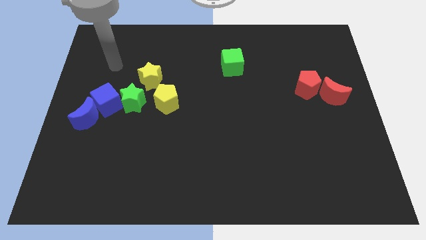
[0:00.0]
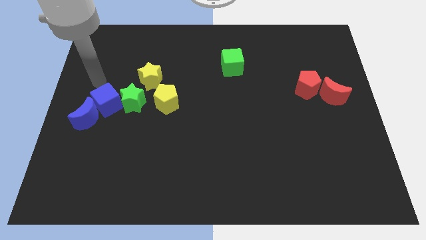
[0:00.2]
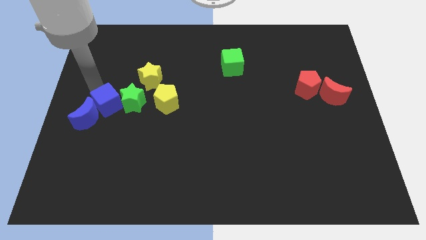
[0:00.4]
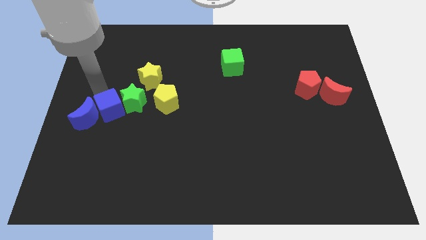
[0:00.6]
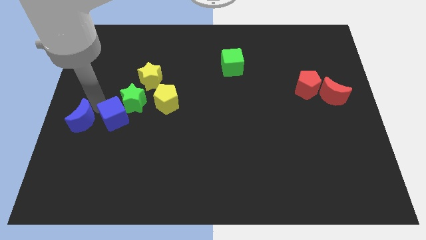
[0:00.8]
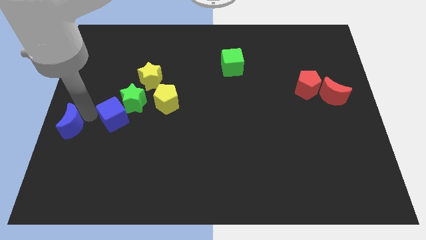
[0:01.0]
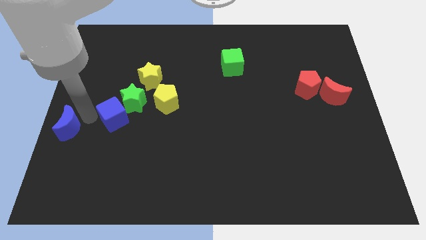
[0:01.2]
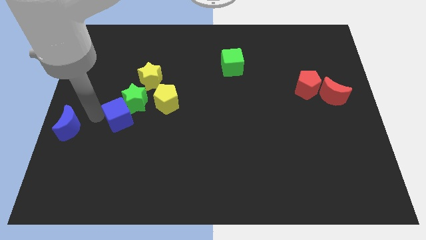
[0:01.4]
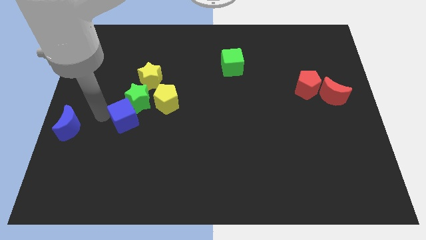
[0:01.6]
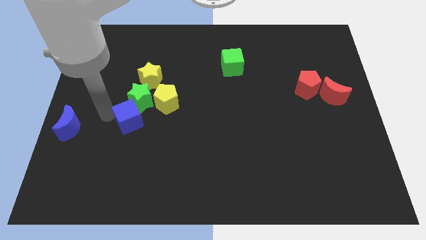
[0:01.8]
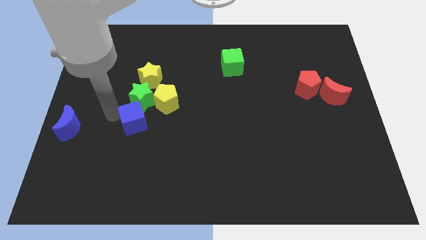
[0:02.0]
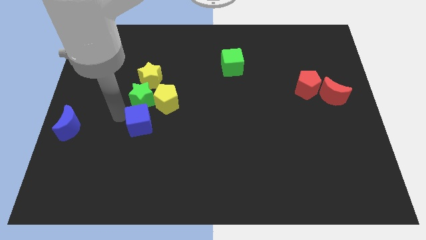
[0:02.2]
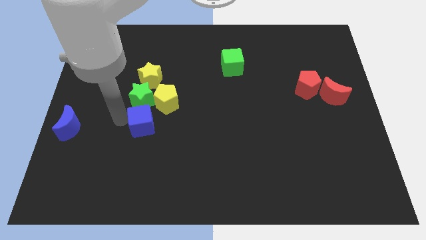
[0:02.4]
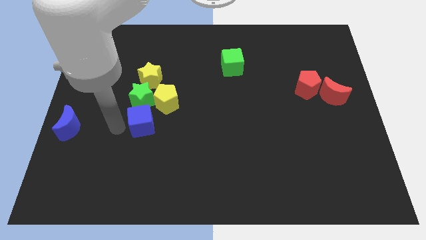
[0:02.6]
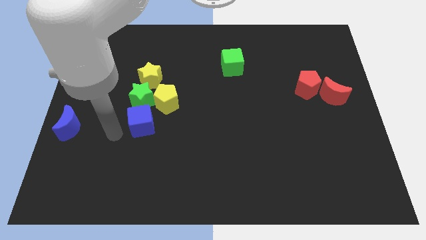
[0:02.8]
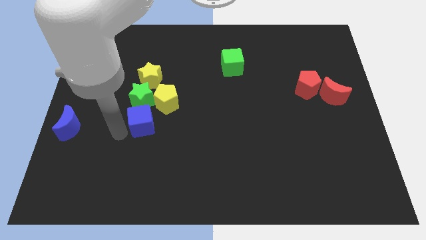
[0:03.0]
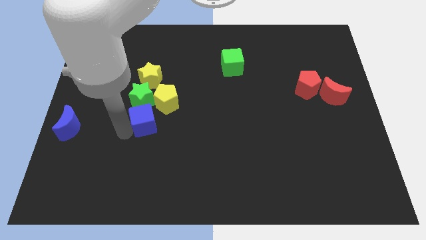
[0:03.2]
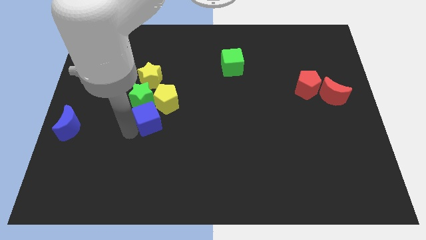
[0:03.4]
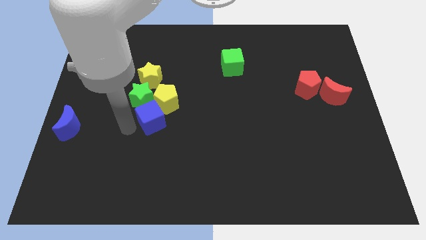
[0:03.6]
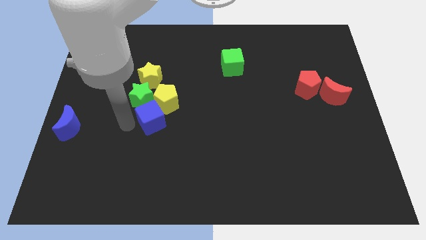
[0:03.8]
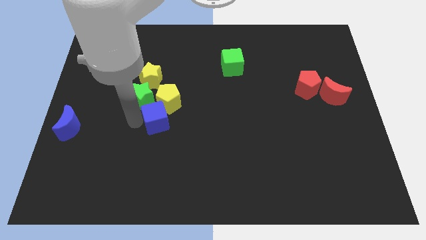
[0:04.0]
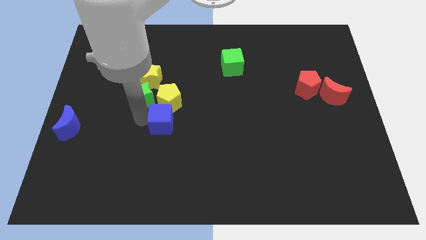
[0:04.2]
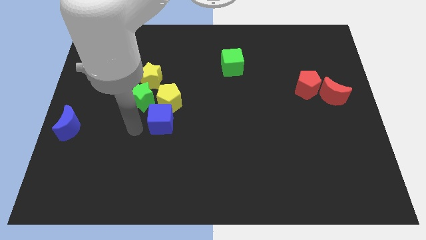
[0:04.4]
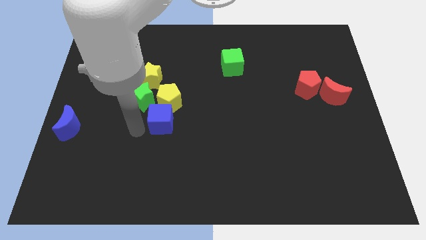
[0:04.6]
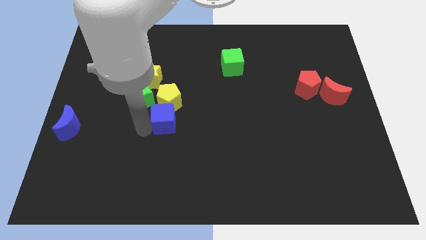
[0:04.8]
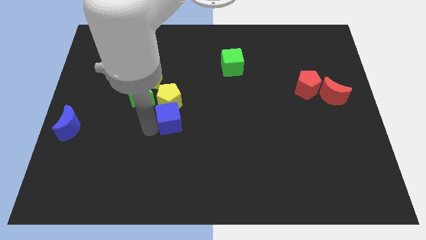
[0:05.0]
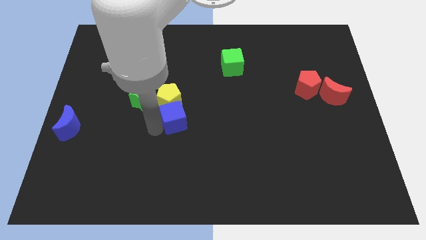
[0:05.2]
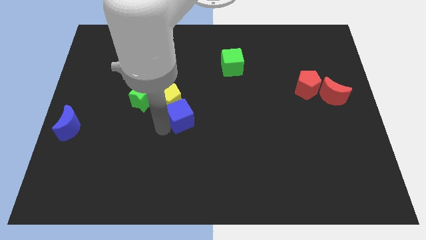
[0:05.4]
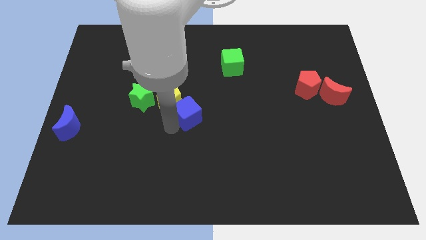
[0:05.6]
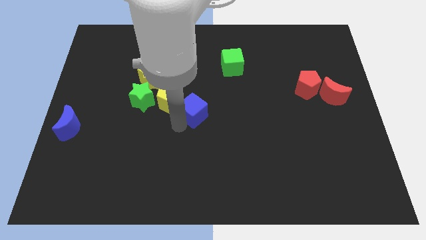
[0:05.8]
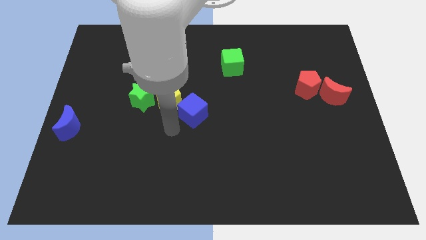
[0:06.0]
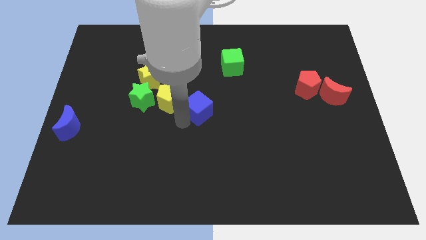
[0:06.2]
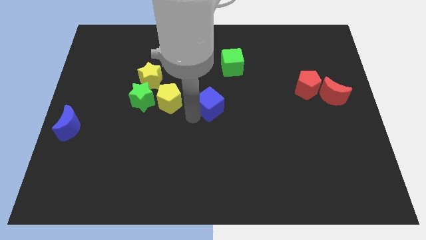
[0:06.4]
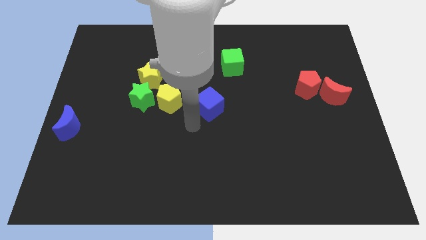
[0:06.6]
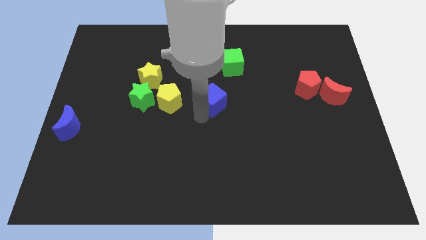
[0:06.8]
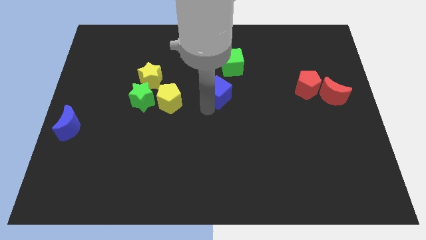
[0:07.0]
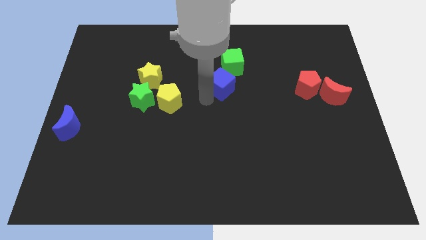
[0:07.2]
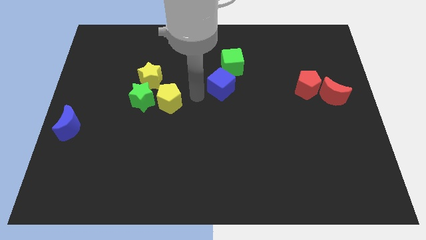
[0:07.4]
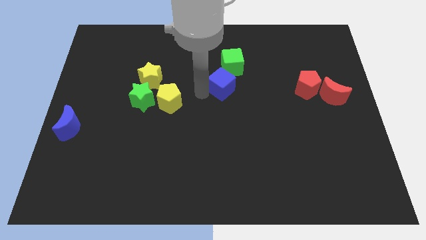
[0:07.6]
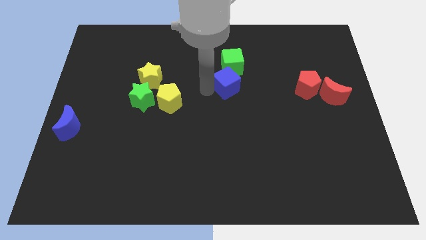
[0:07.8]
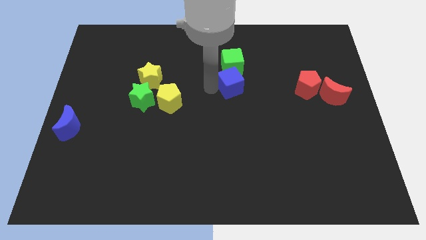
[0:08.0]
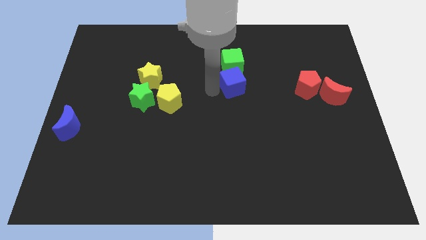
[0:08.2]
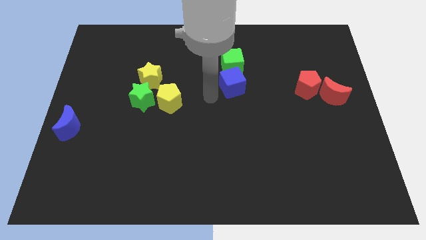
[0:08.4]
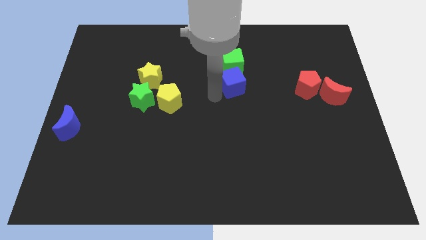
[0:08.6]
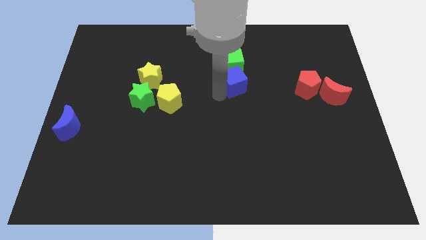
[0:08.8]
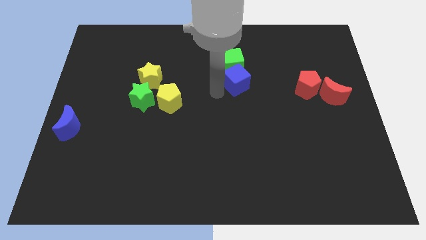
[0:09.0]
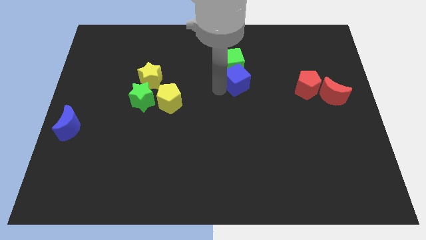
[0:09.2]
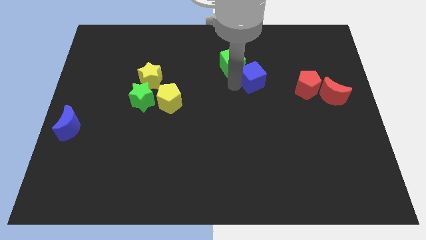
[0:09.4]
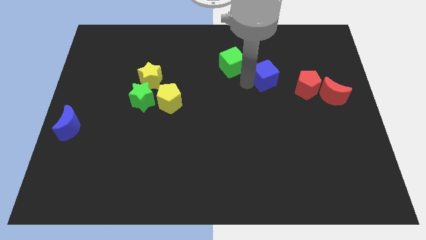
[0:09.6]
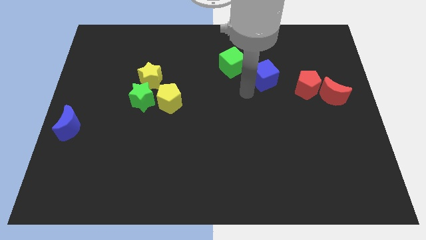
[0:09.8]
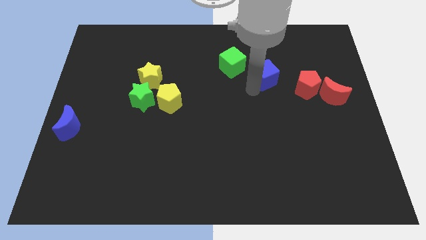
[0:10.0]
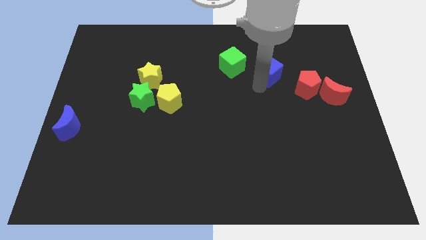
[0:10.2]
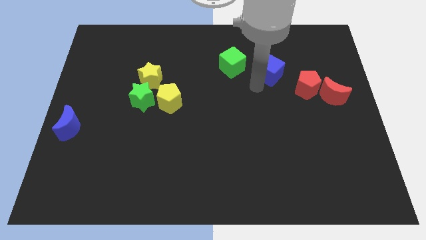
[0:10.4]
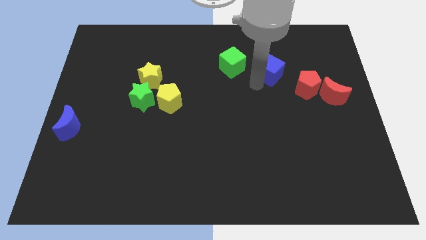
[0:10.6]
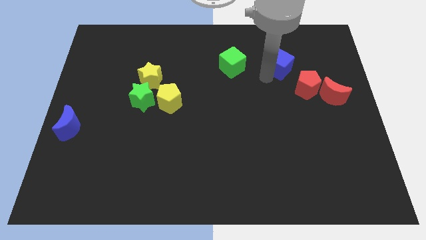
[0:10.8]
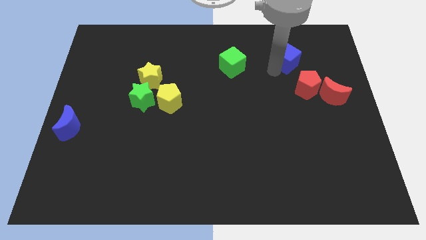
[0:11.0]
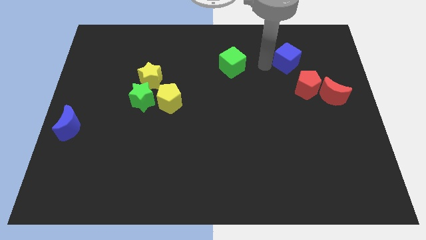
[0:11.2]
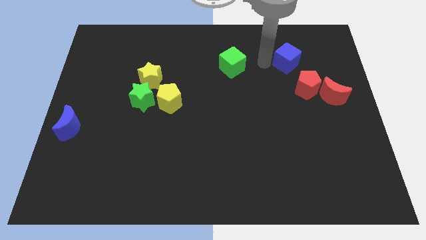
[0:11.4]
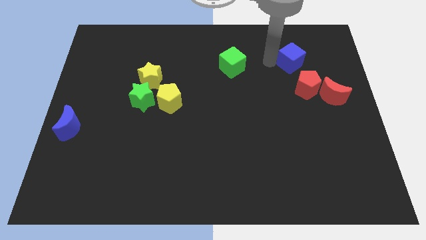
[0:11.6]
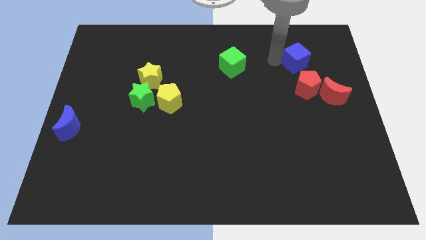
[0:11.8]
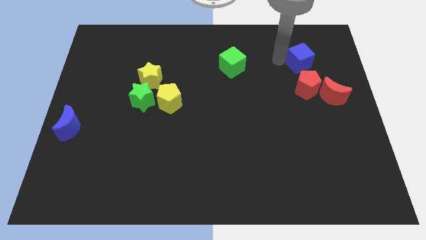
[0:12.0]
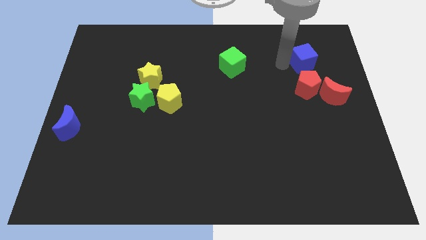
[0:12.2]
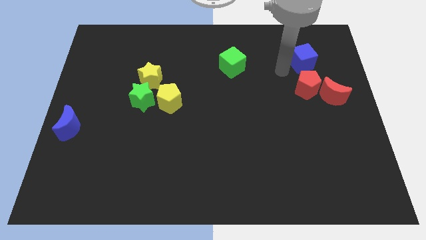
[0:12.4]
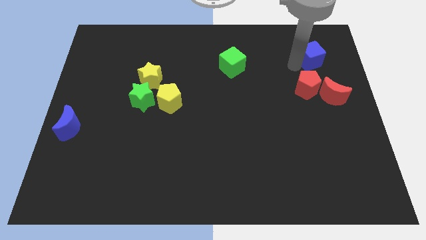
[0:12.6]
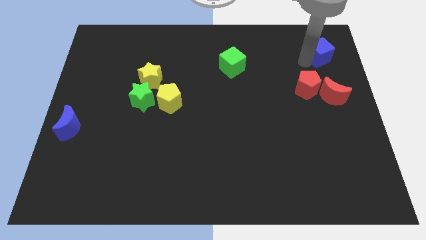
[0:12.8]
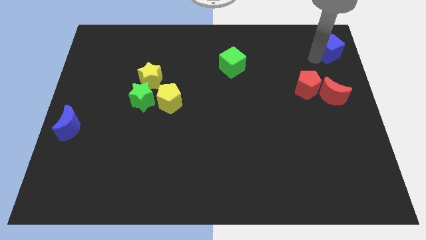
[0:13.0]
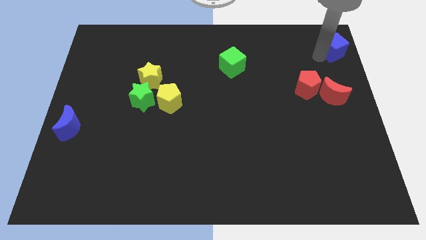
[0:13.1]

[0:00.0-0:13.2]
push the blue cube to the top right corner

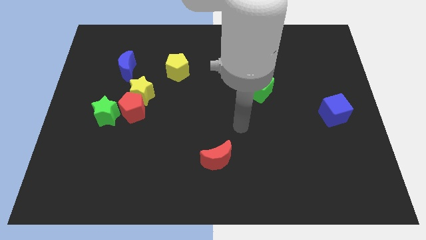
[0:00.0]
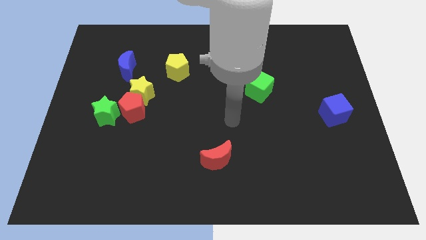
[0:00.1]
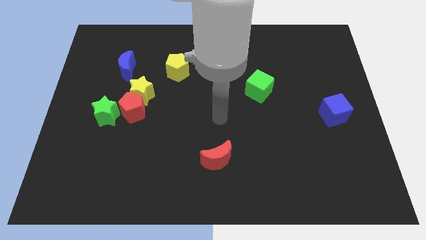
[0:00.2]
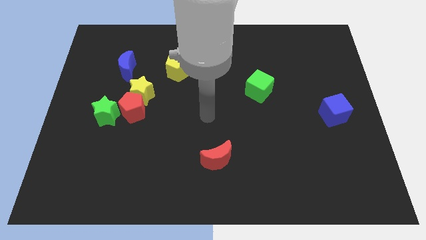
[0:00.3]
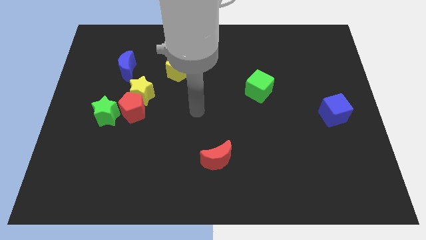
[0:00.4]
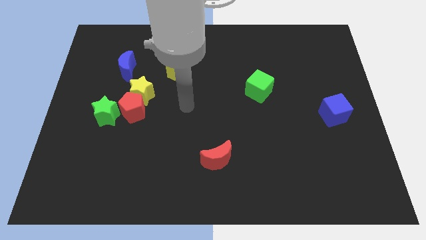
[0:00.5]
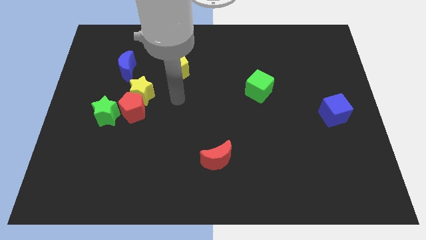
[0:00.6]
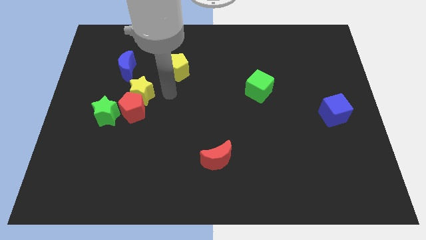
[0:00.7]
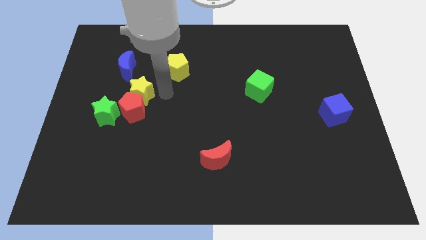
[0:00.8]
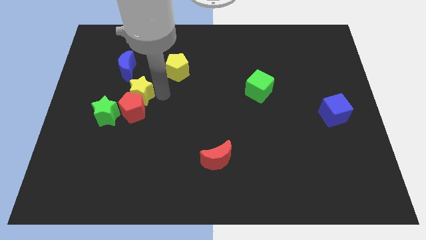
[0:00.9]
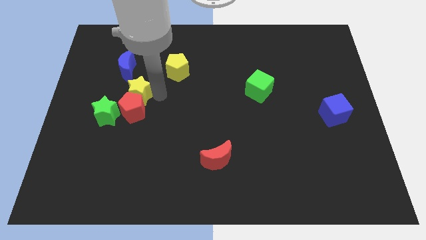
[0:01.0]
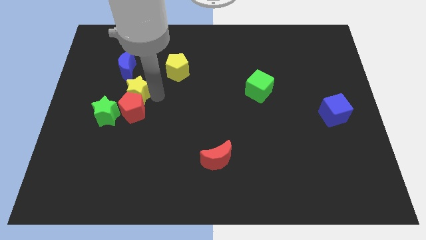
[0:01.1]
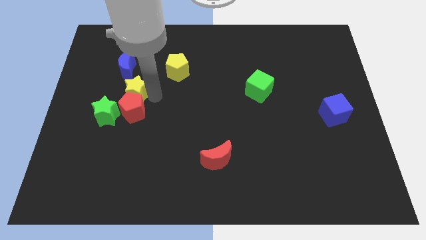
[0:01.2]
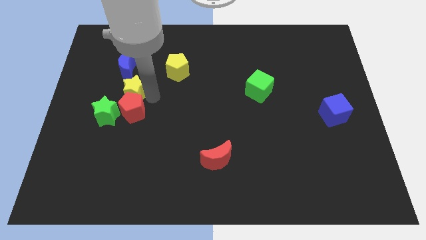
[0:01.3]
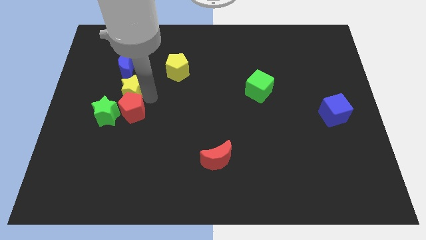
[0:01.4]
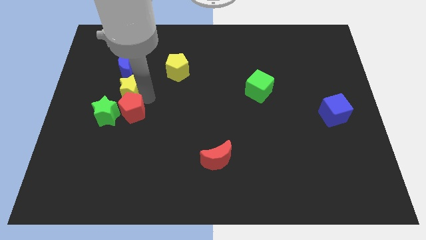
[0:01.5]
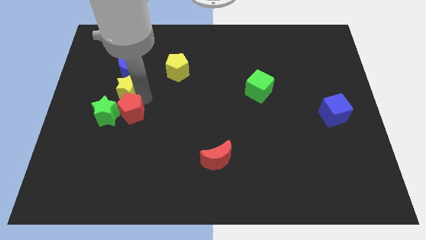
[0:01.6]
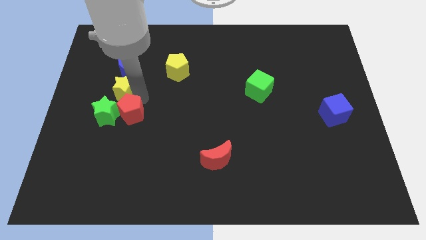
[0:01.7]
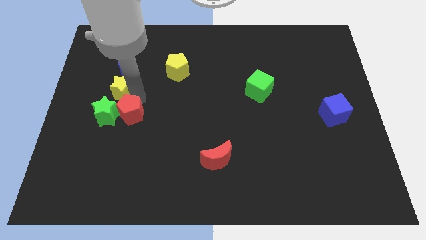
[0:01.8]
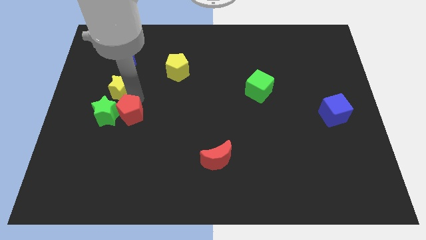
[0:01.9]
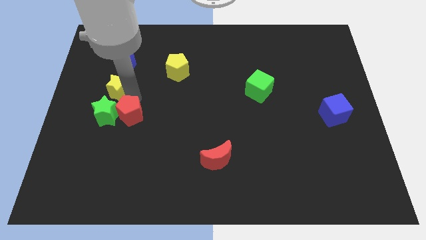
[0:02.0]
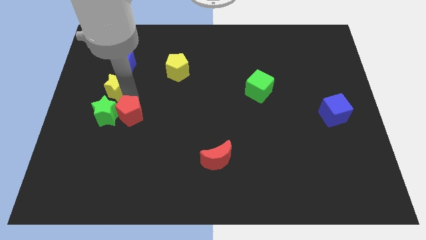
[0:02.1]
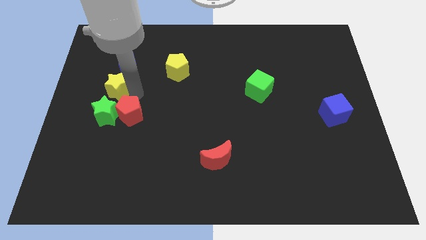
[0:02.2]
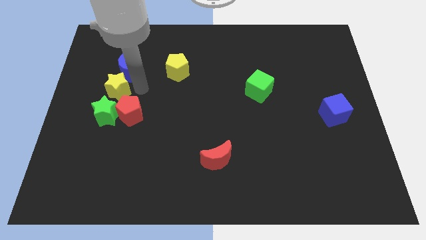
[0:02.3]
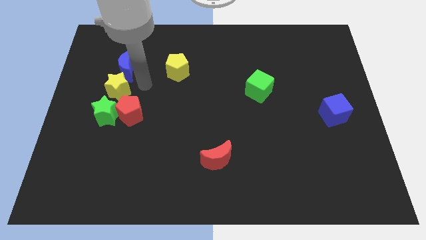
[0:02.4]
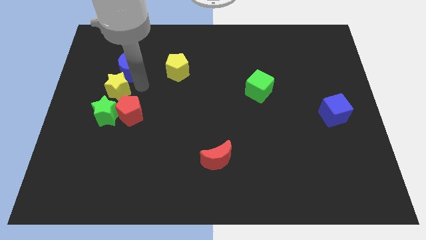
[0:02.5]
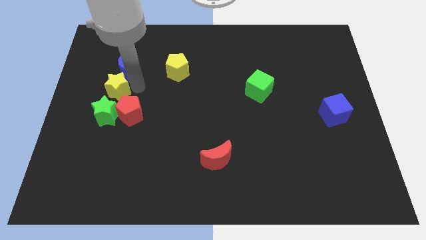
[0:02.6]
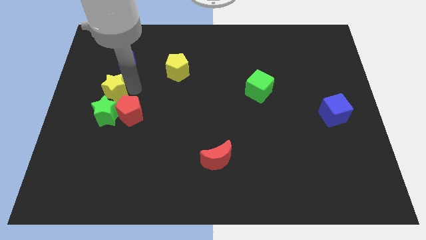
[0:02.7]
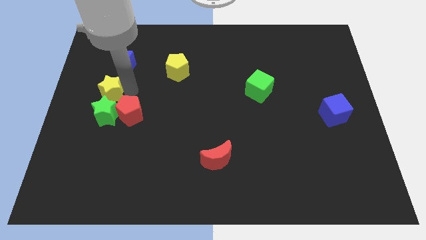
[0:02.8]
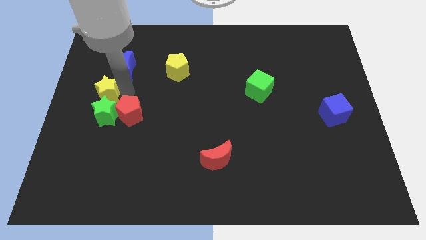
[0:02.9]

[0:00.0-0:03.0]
slide the yellow star to the left side of the board
